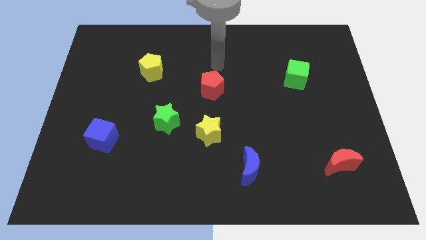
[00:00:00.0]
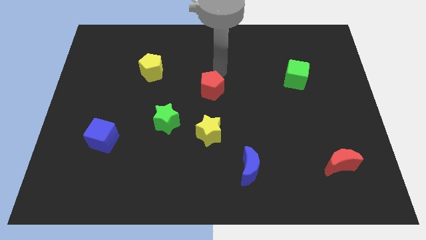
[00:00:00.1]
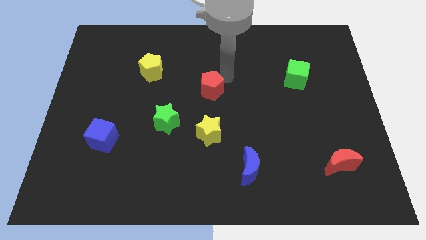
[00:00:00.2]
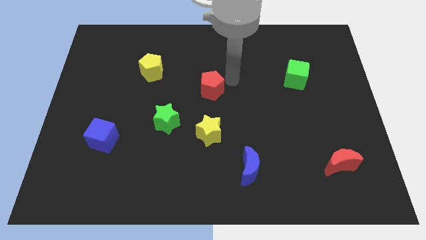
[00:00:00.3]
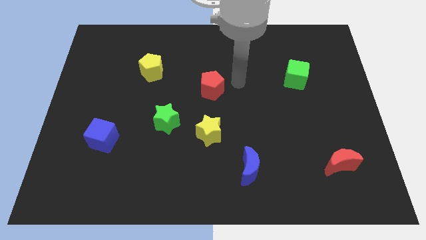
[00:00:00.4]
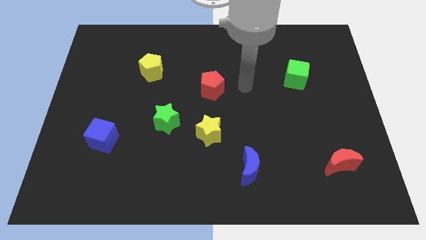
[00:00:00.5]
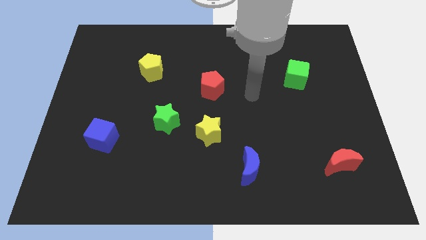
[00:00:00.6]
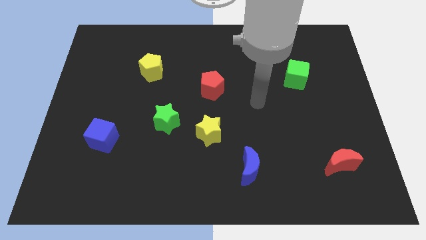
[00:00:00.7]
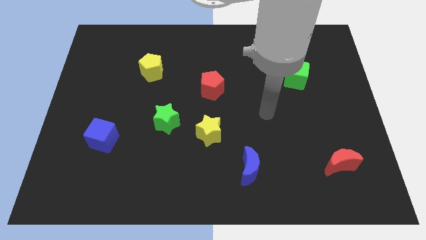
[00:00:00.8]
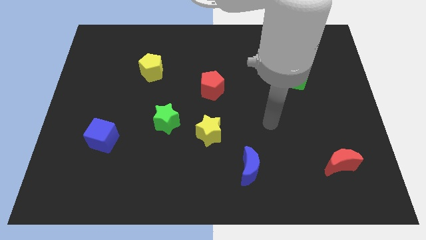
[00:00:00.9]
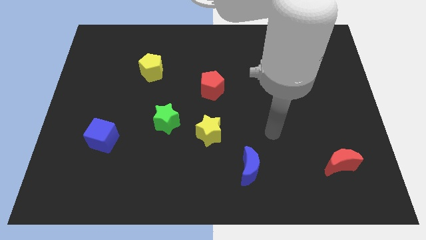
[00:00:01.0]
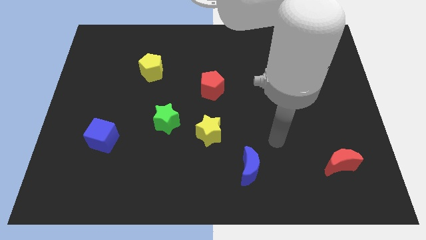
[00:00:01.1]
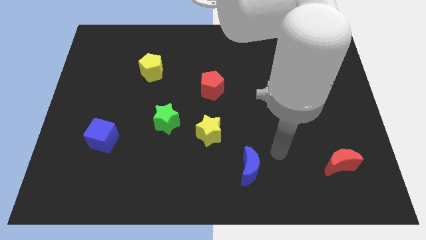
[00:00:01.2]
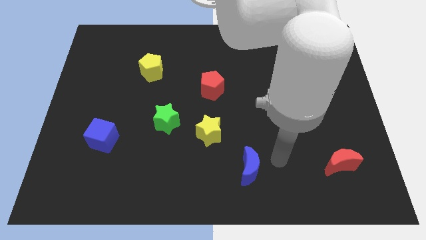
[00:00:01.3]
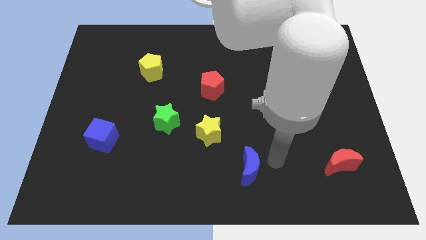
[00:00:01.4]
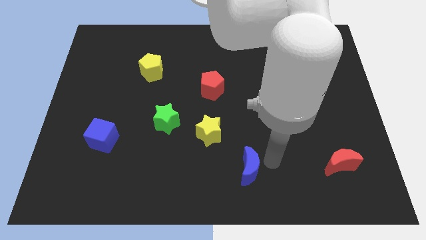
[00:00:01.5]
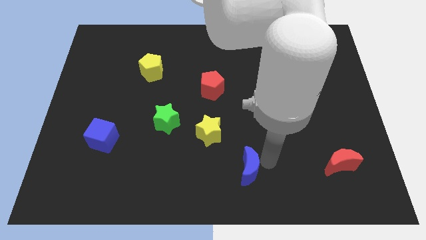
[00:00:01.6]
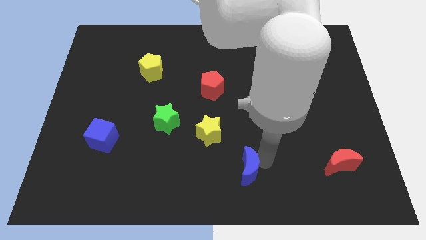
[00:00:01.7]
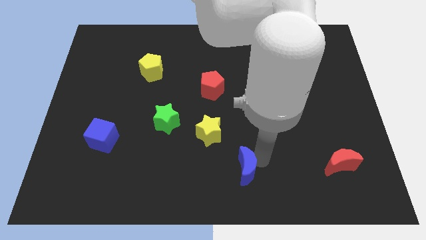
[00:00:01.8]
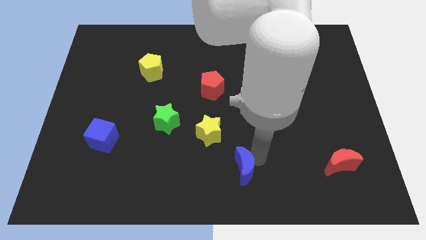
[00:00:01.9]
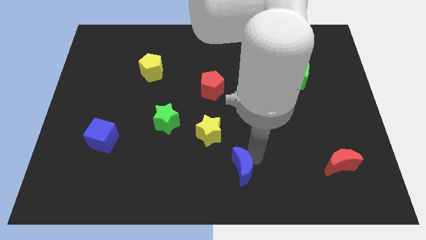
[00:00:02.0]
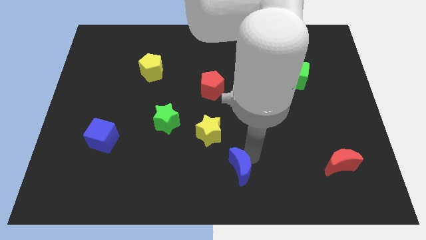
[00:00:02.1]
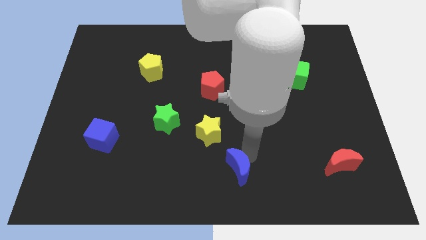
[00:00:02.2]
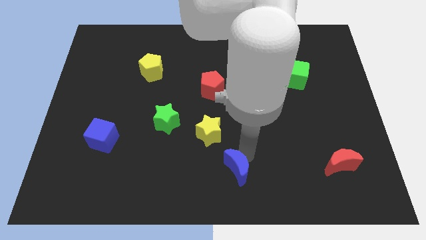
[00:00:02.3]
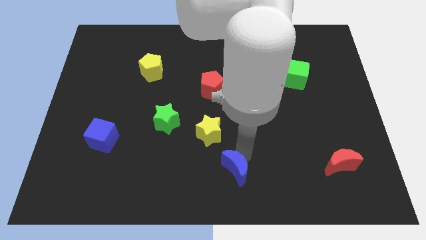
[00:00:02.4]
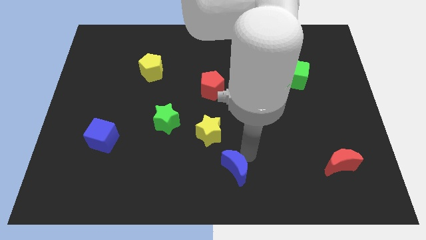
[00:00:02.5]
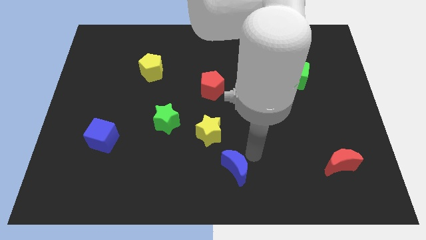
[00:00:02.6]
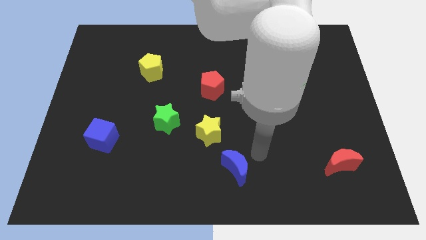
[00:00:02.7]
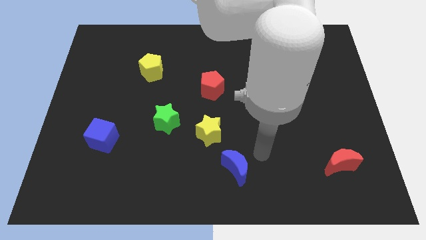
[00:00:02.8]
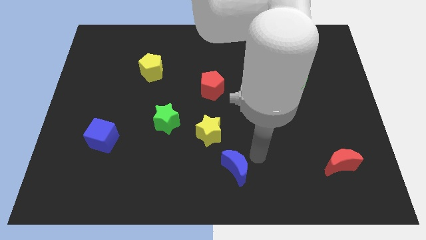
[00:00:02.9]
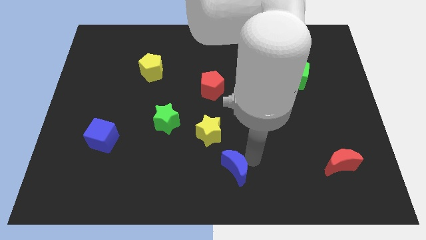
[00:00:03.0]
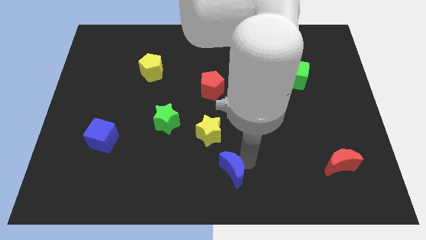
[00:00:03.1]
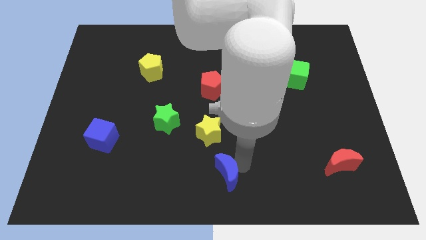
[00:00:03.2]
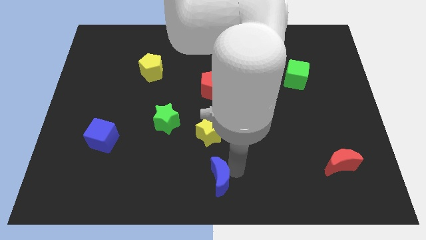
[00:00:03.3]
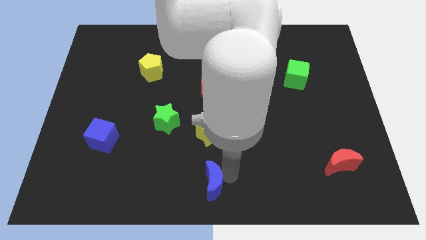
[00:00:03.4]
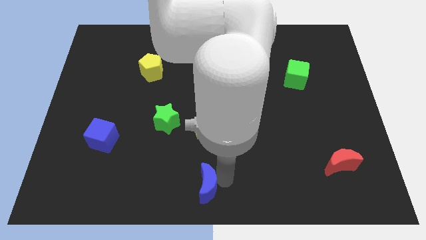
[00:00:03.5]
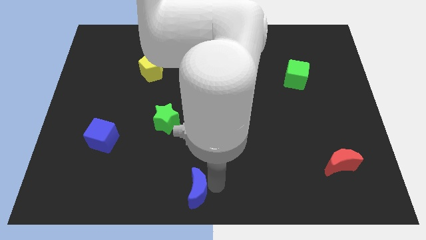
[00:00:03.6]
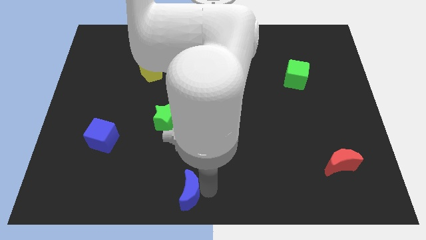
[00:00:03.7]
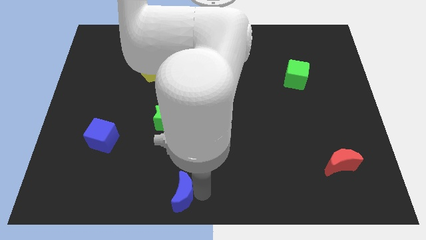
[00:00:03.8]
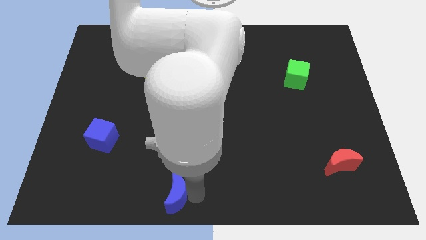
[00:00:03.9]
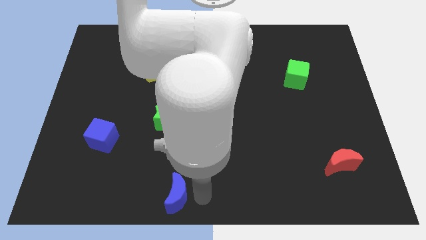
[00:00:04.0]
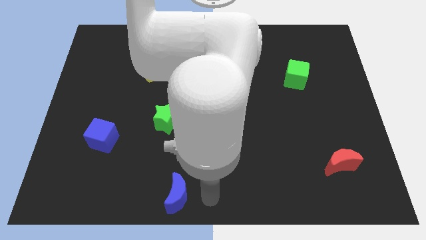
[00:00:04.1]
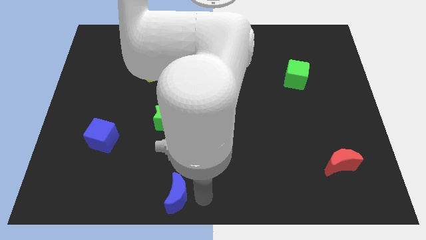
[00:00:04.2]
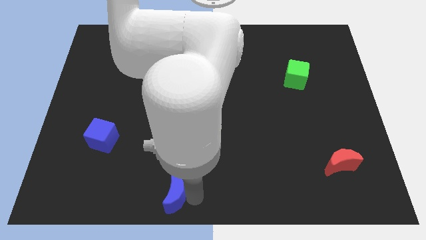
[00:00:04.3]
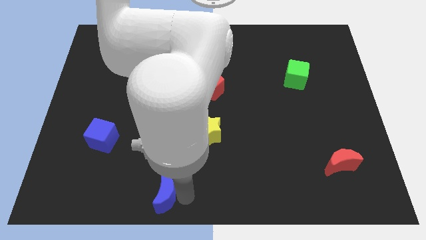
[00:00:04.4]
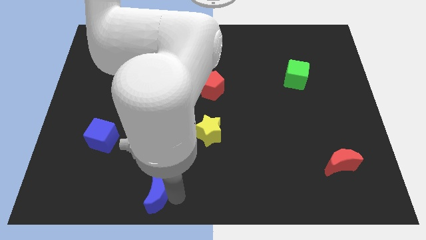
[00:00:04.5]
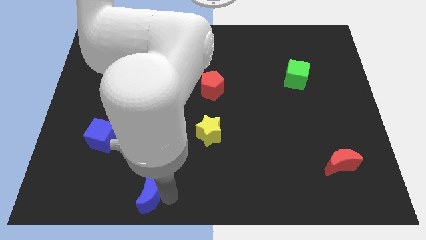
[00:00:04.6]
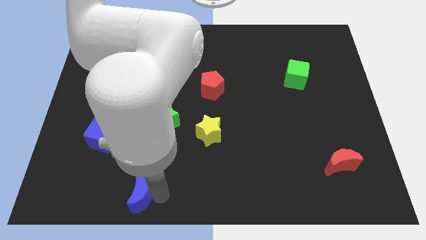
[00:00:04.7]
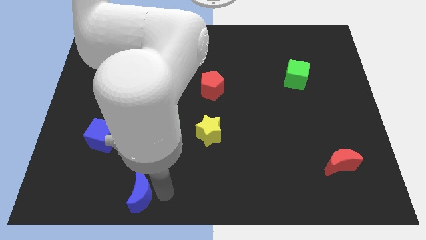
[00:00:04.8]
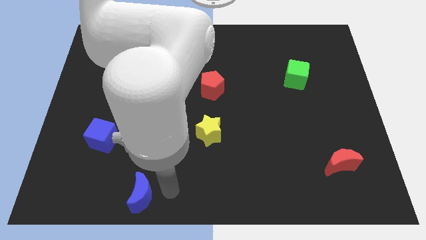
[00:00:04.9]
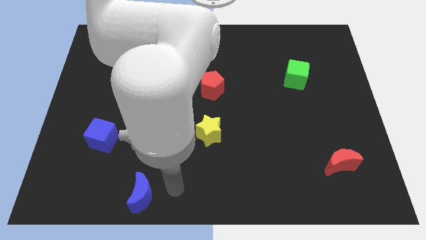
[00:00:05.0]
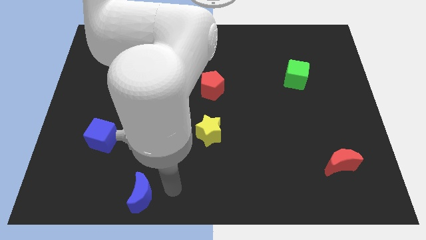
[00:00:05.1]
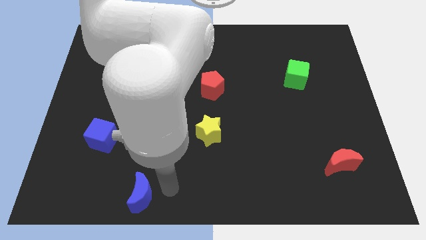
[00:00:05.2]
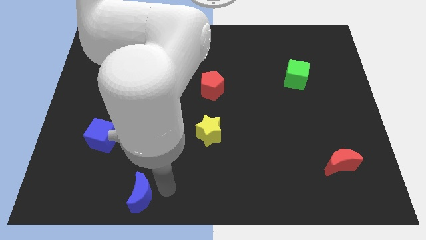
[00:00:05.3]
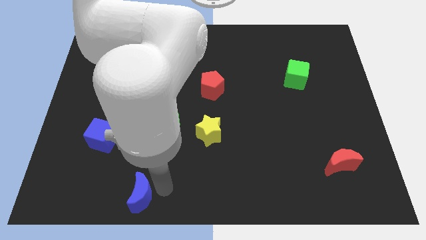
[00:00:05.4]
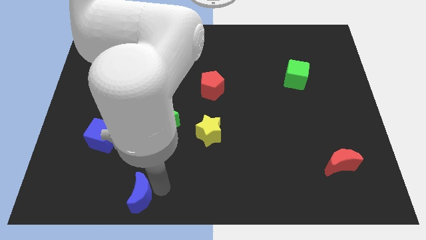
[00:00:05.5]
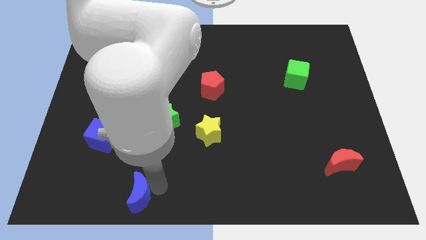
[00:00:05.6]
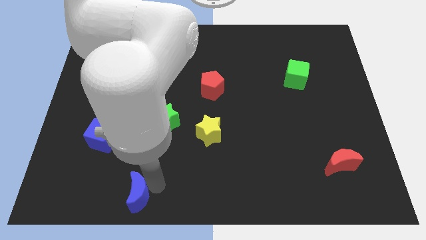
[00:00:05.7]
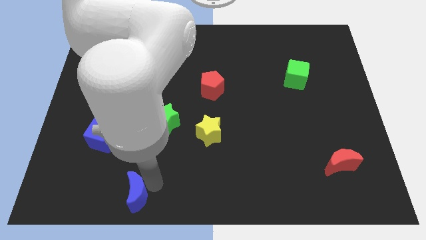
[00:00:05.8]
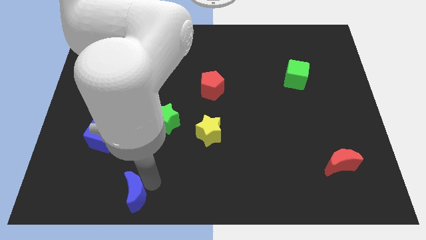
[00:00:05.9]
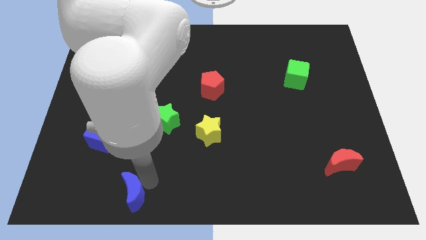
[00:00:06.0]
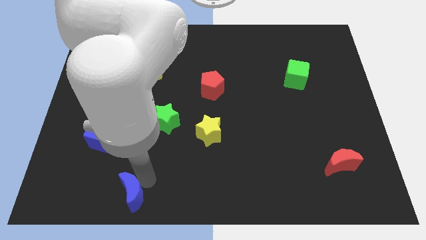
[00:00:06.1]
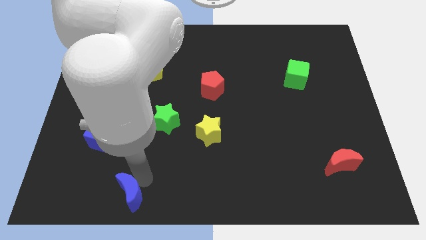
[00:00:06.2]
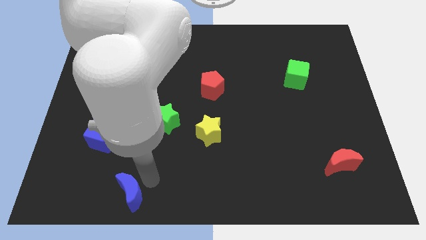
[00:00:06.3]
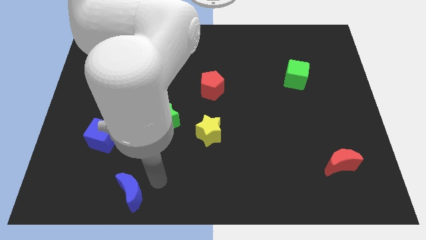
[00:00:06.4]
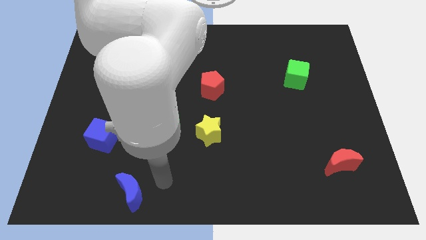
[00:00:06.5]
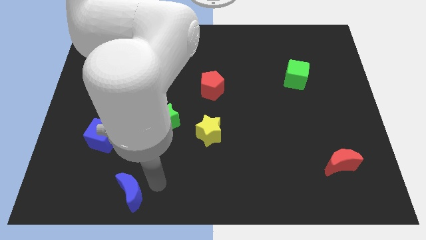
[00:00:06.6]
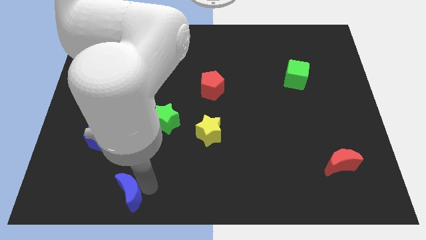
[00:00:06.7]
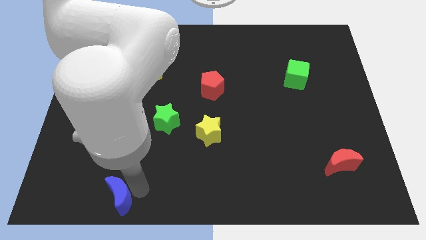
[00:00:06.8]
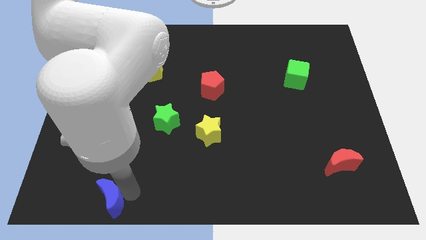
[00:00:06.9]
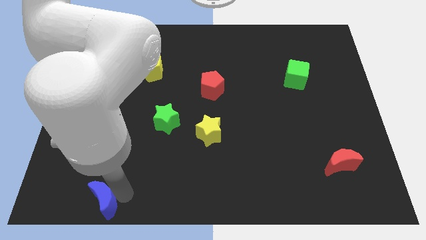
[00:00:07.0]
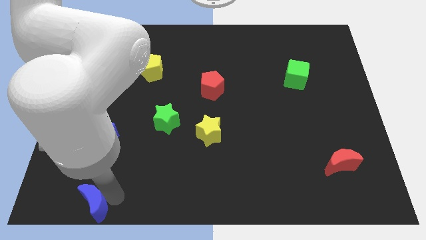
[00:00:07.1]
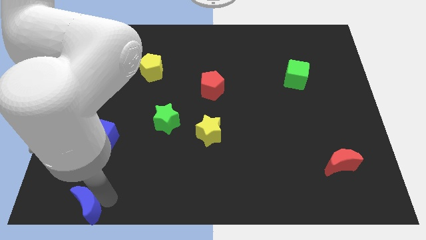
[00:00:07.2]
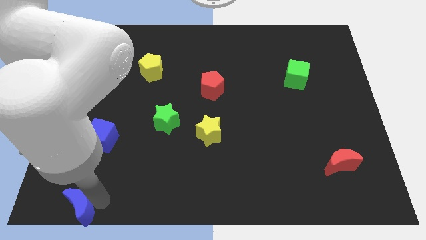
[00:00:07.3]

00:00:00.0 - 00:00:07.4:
slide the blue moon to the bottom left of the board
